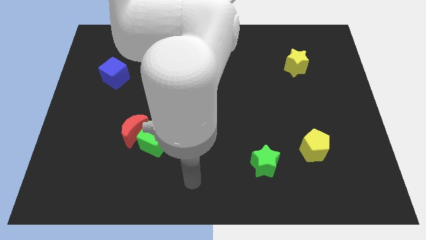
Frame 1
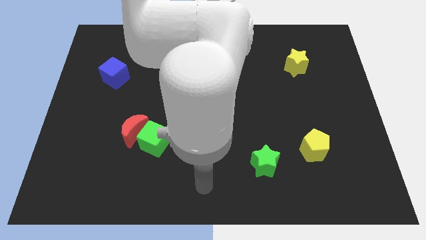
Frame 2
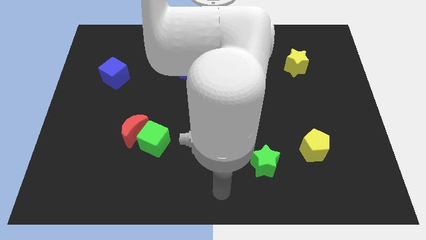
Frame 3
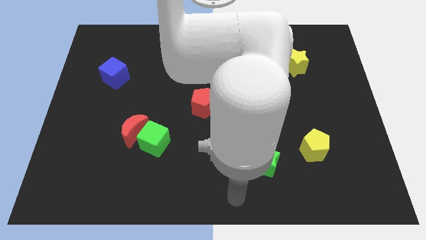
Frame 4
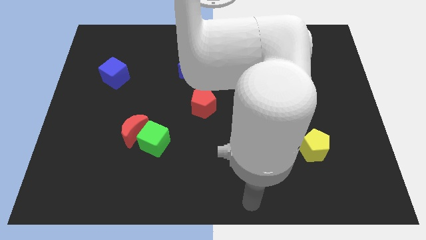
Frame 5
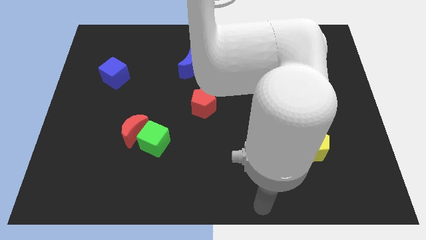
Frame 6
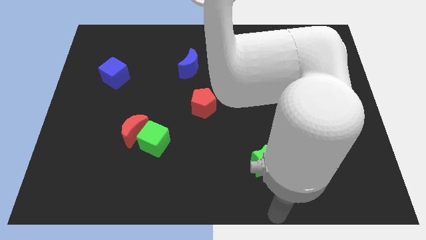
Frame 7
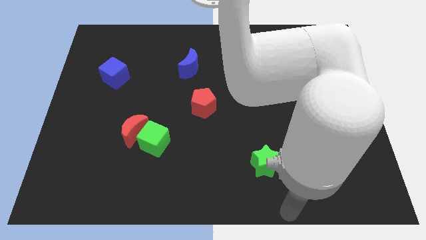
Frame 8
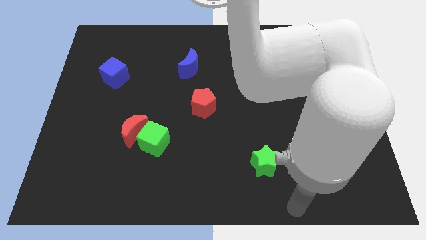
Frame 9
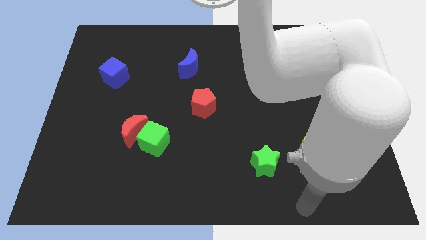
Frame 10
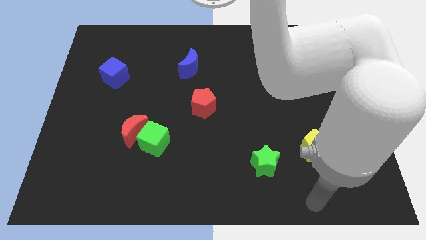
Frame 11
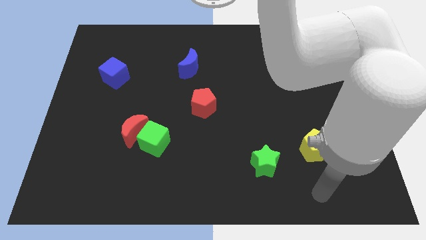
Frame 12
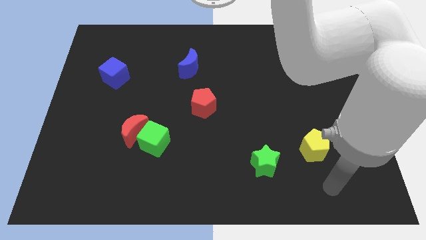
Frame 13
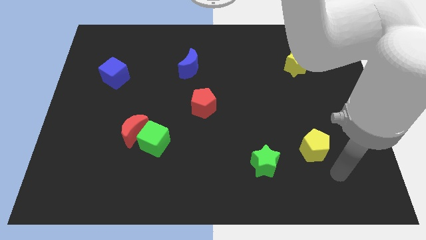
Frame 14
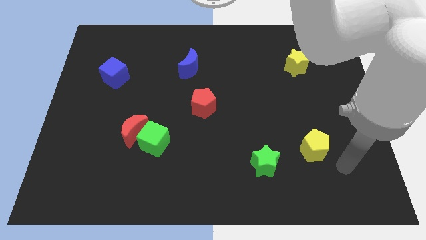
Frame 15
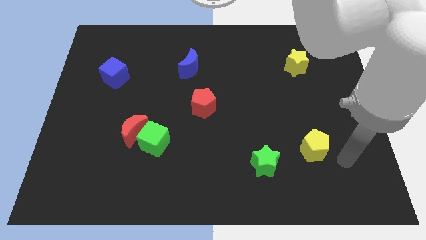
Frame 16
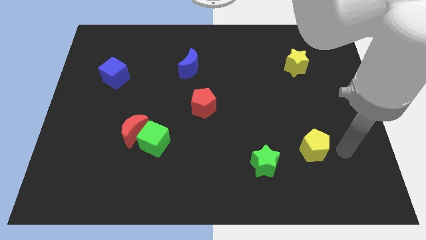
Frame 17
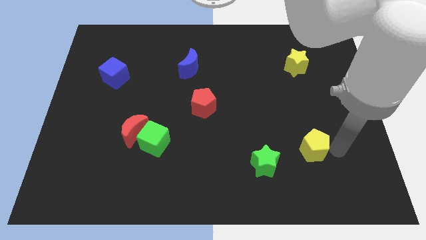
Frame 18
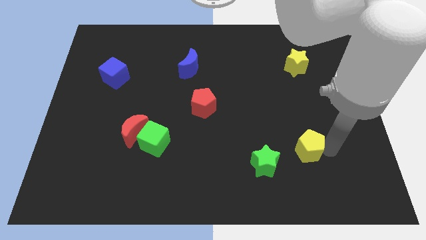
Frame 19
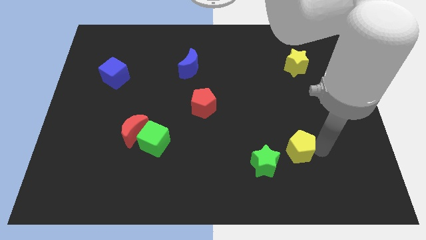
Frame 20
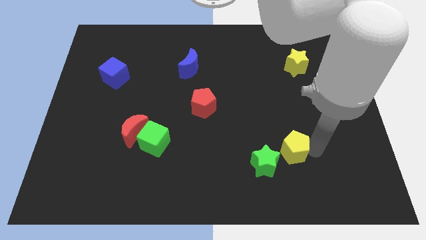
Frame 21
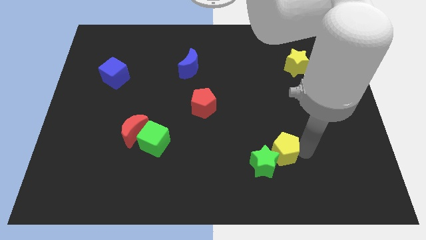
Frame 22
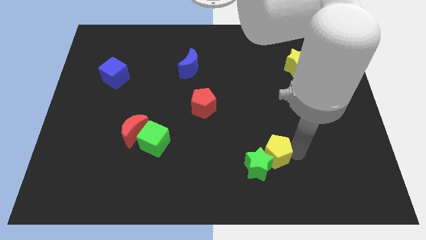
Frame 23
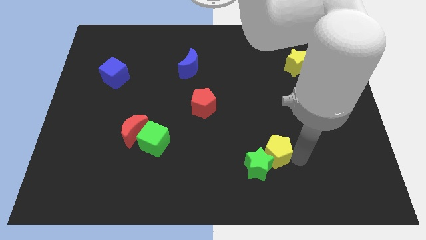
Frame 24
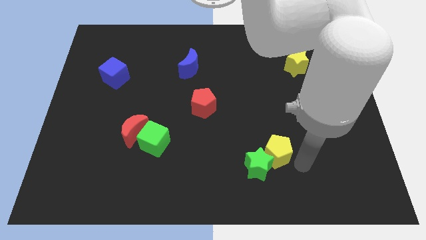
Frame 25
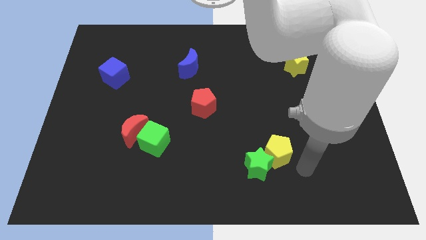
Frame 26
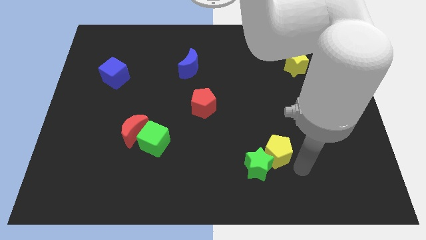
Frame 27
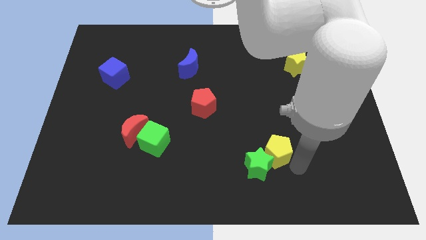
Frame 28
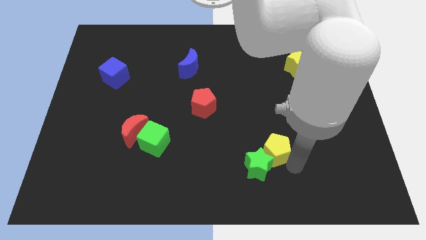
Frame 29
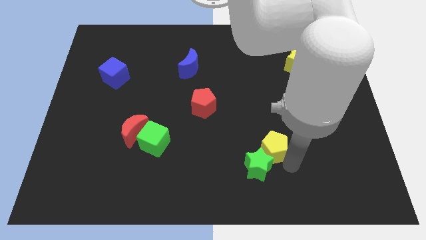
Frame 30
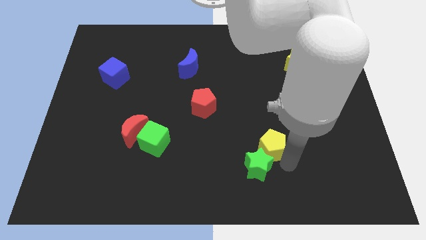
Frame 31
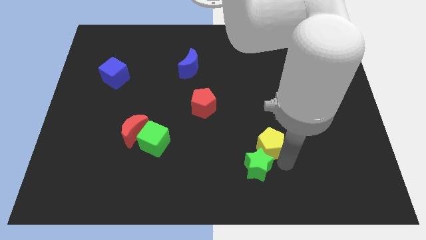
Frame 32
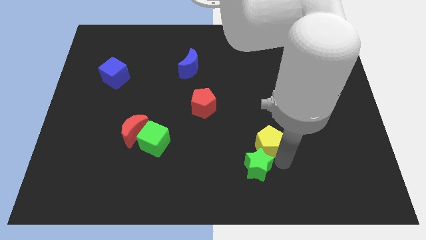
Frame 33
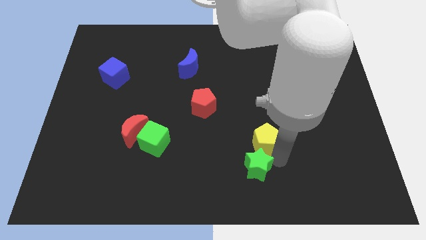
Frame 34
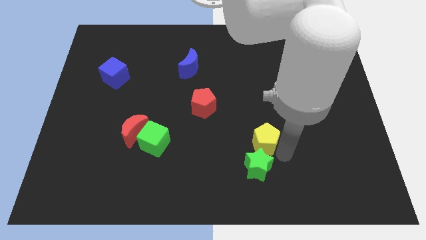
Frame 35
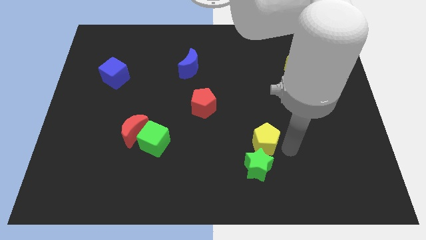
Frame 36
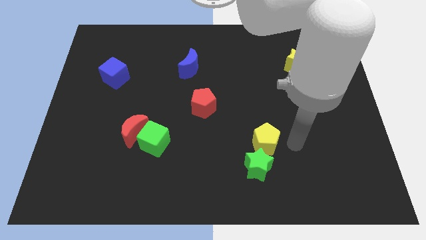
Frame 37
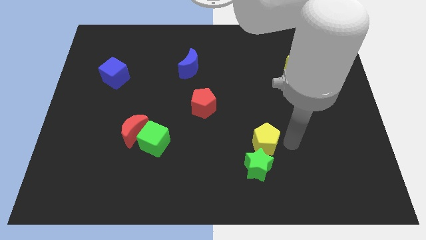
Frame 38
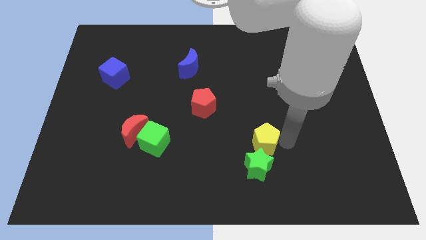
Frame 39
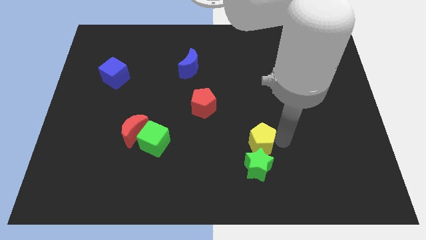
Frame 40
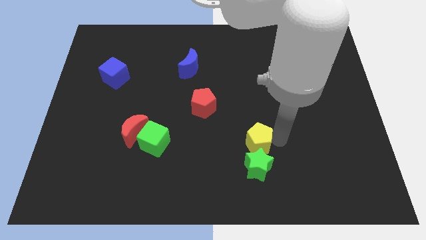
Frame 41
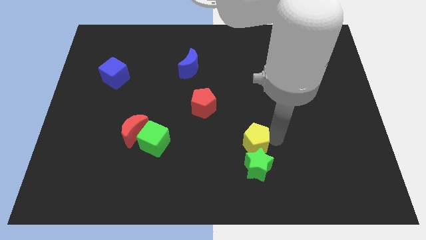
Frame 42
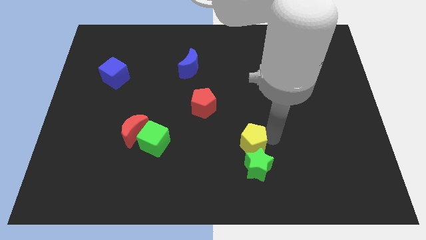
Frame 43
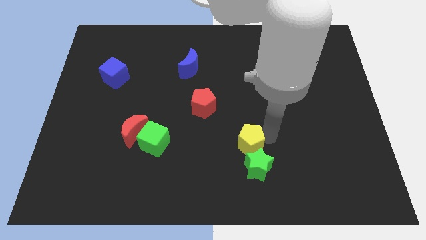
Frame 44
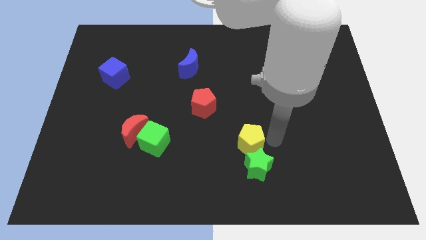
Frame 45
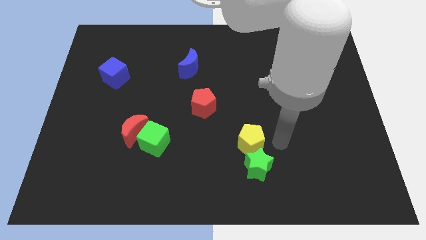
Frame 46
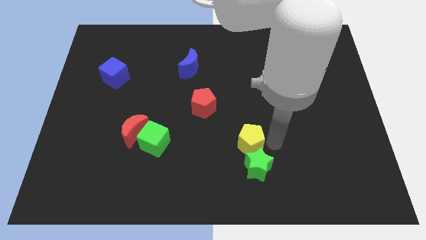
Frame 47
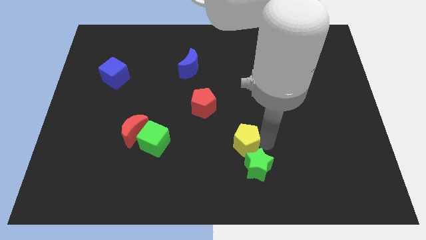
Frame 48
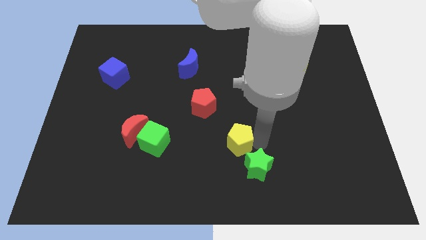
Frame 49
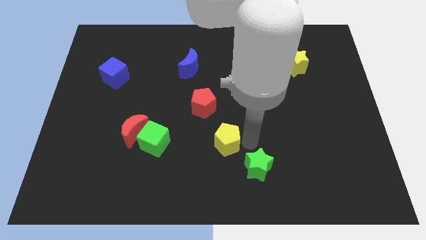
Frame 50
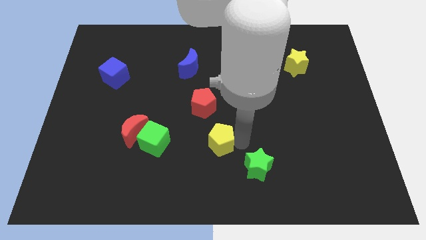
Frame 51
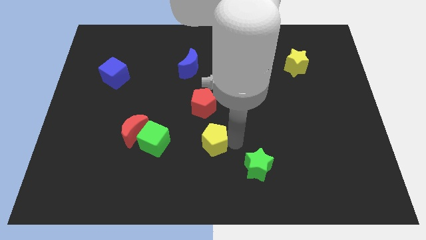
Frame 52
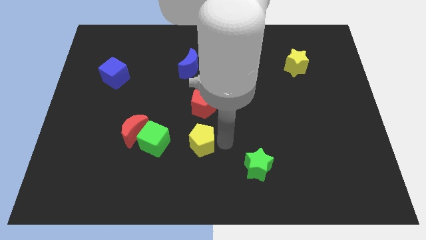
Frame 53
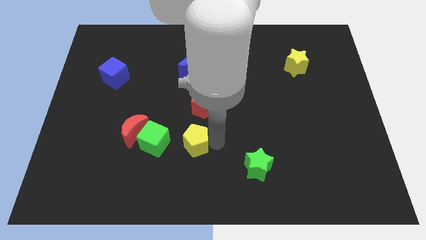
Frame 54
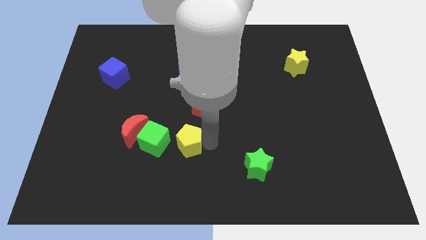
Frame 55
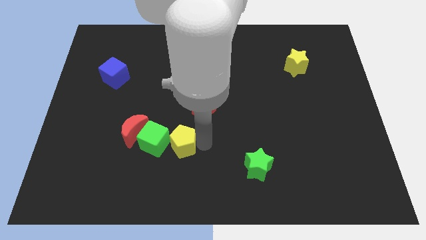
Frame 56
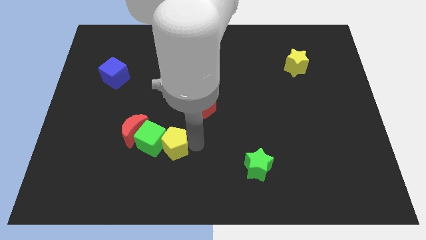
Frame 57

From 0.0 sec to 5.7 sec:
move the yellow pentagon close to the green cube

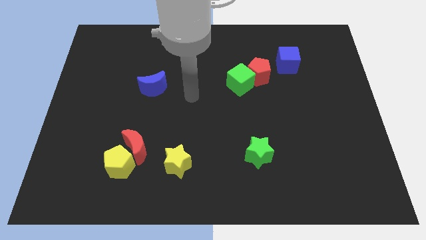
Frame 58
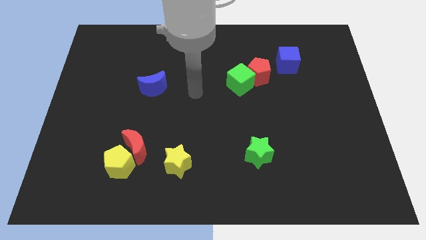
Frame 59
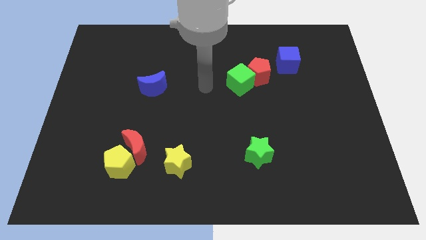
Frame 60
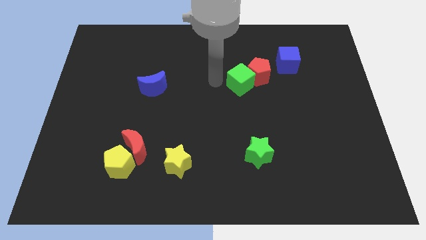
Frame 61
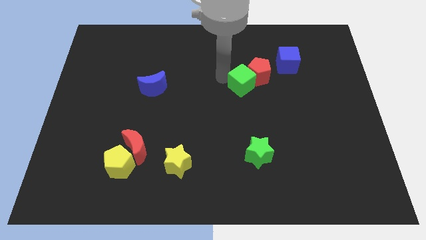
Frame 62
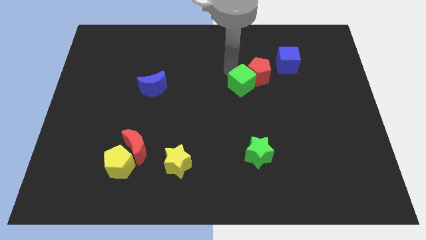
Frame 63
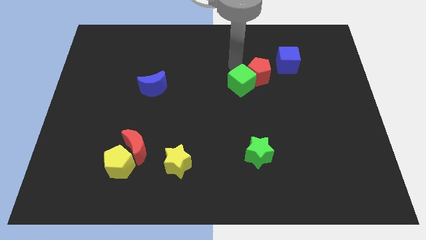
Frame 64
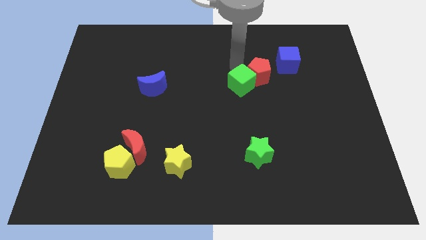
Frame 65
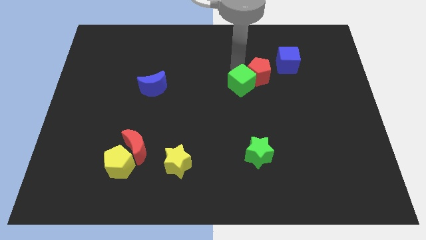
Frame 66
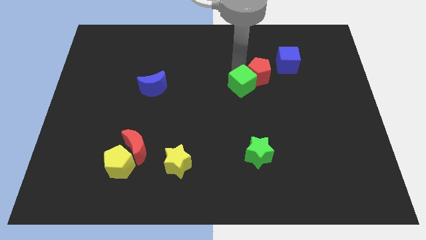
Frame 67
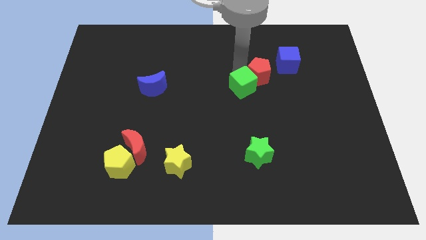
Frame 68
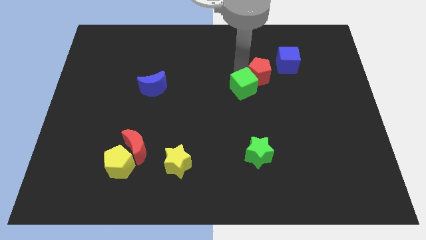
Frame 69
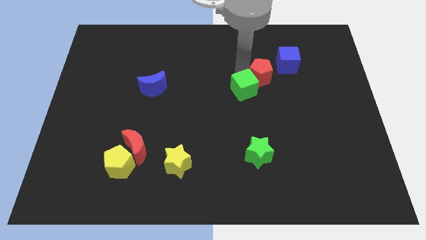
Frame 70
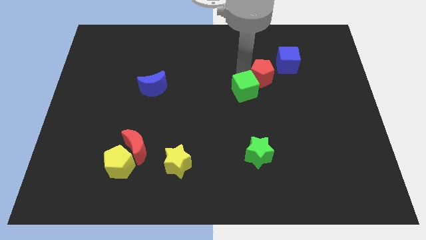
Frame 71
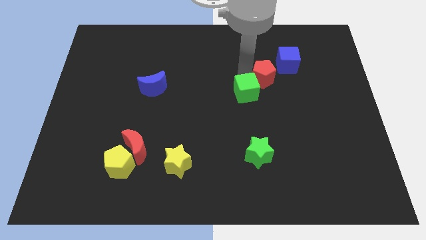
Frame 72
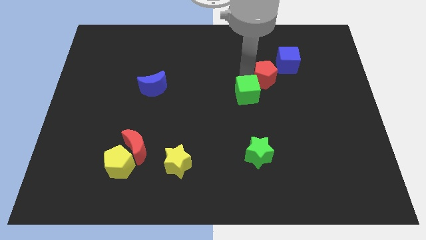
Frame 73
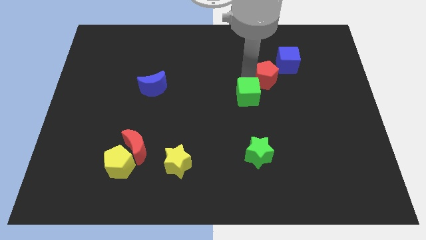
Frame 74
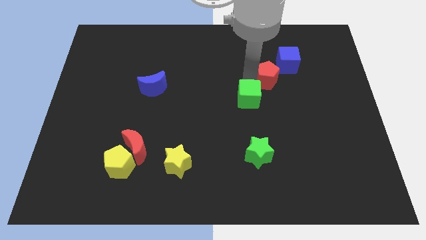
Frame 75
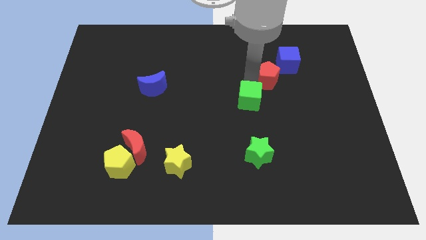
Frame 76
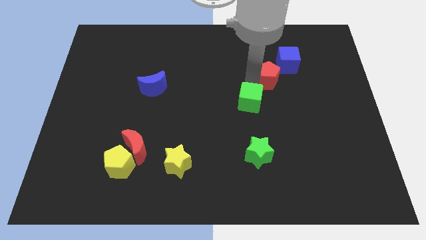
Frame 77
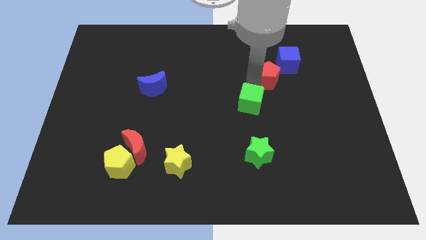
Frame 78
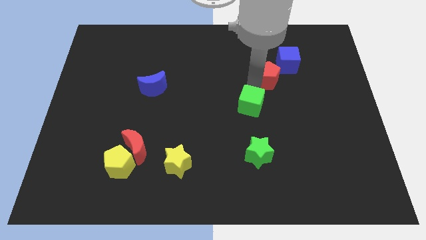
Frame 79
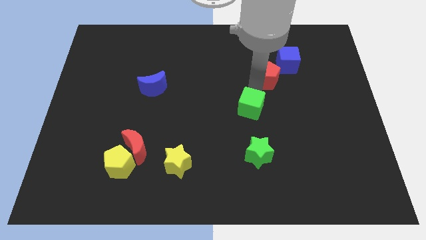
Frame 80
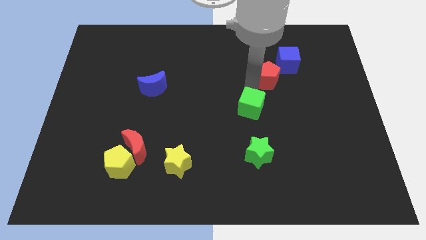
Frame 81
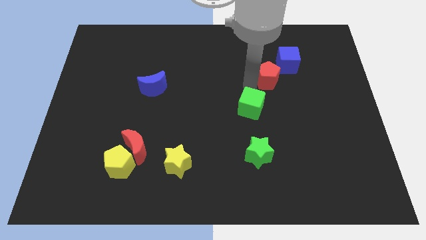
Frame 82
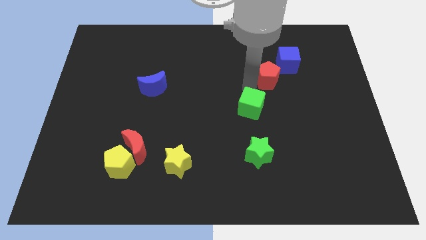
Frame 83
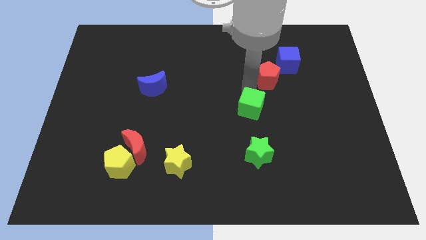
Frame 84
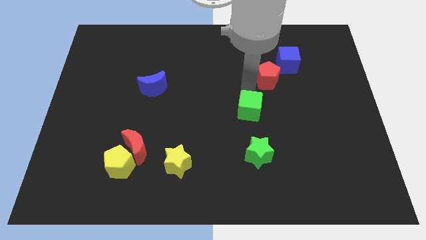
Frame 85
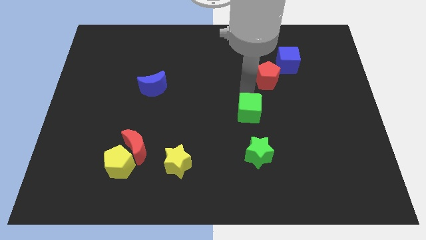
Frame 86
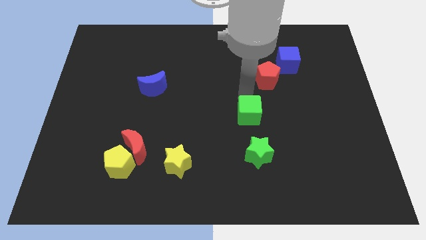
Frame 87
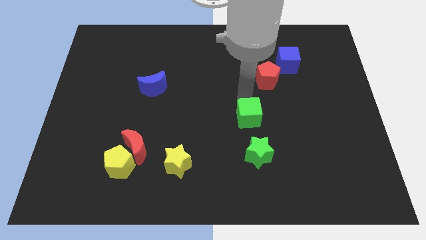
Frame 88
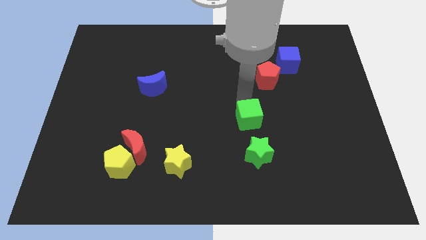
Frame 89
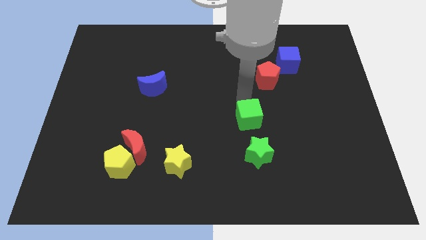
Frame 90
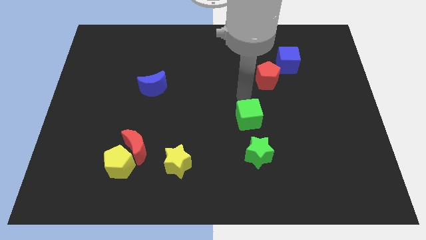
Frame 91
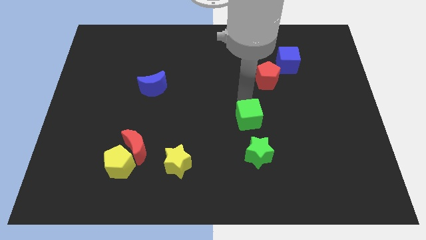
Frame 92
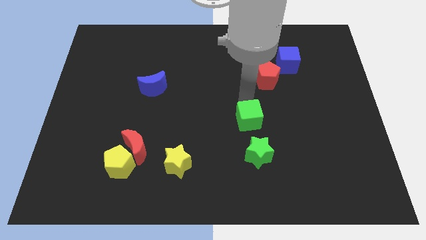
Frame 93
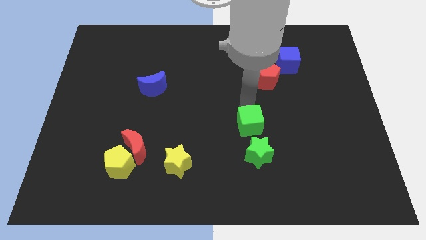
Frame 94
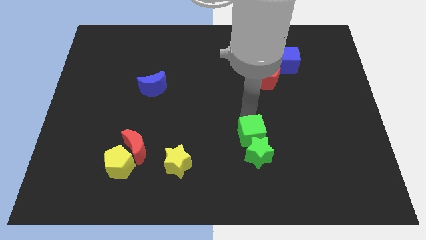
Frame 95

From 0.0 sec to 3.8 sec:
push the green cube towards the green star
